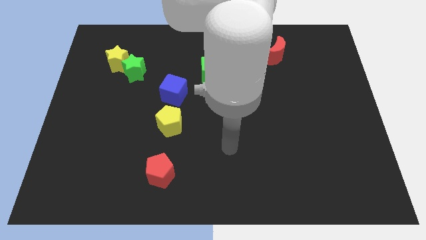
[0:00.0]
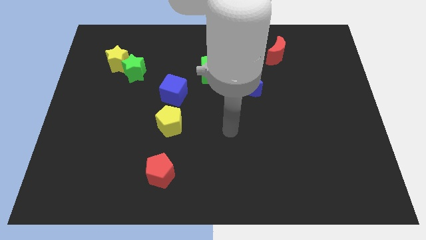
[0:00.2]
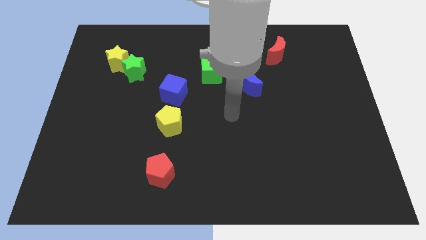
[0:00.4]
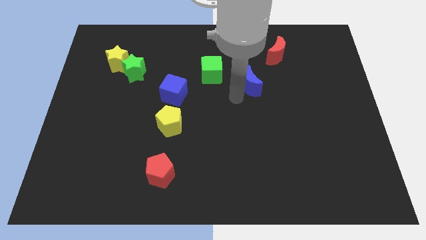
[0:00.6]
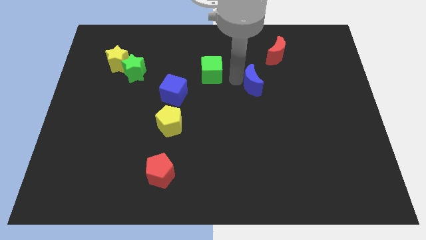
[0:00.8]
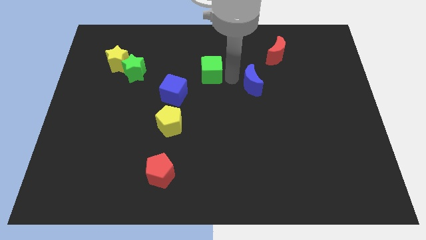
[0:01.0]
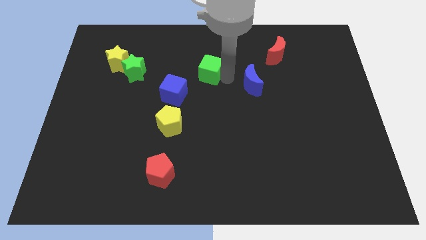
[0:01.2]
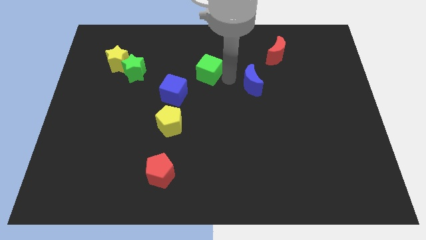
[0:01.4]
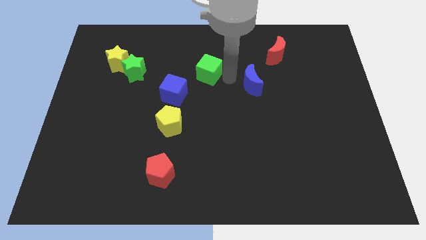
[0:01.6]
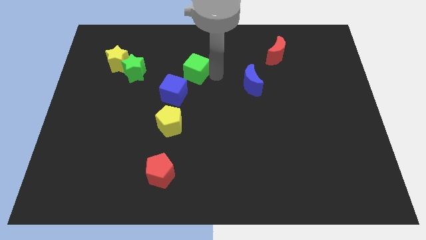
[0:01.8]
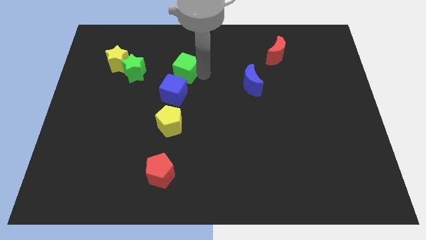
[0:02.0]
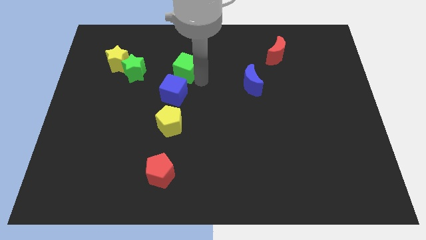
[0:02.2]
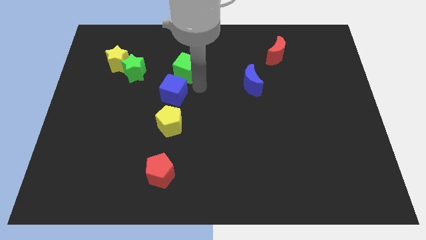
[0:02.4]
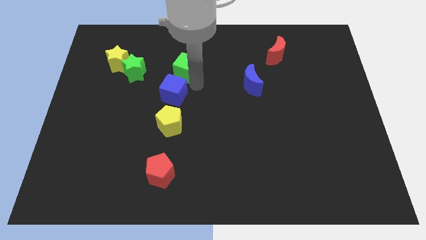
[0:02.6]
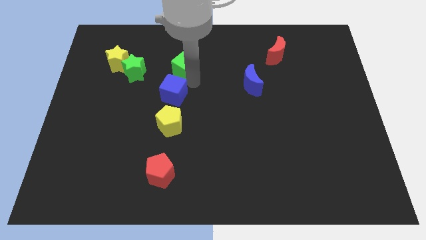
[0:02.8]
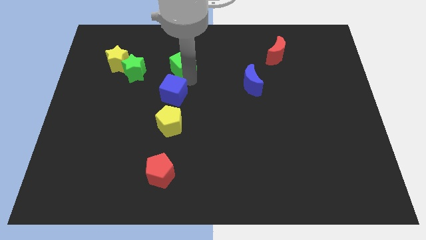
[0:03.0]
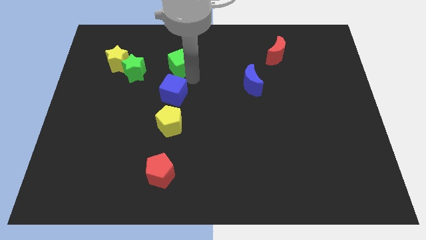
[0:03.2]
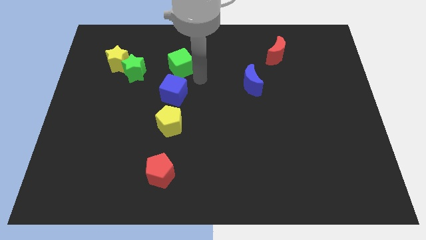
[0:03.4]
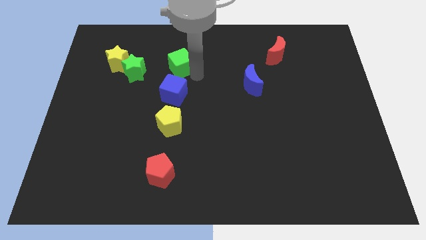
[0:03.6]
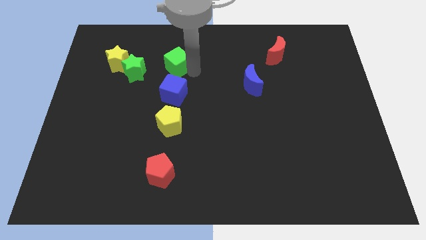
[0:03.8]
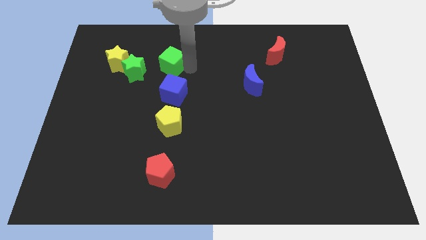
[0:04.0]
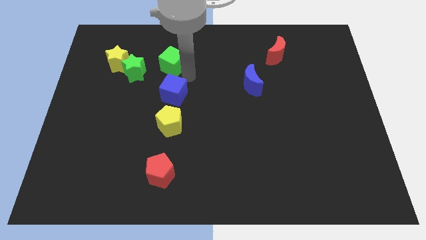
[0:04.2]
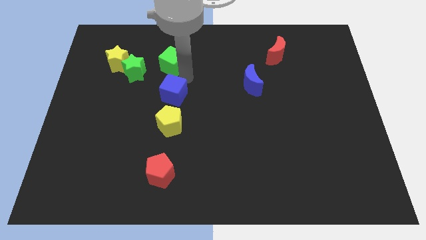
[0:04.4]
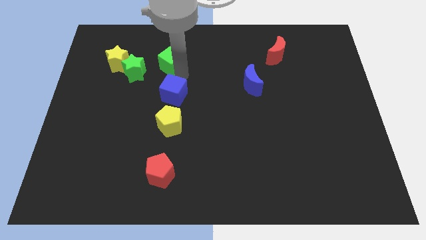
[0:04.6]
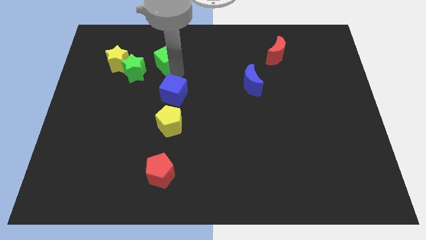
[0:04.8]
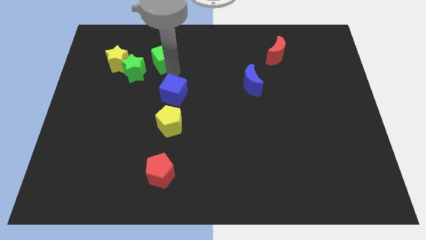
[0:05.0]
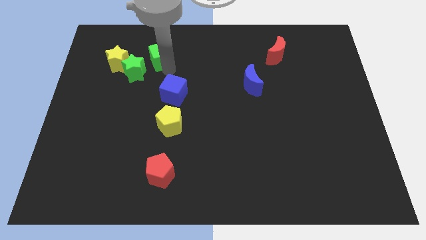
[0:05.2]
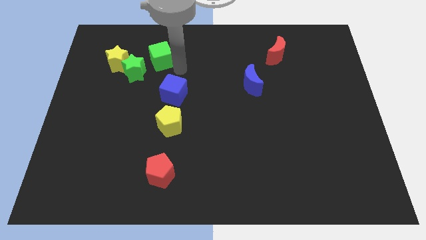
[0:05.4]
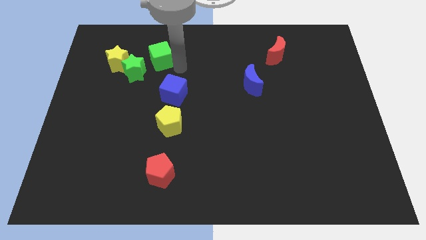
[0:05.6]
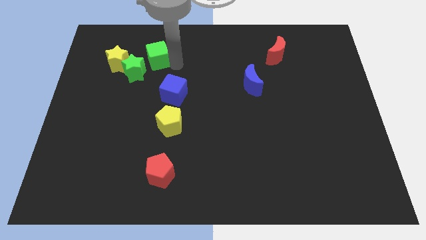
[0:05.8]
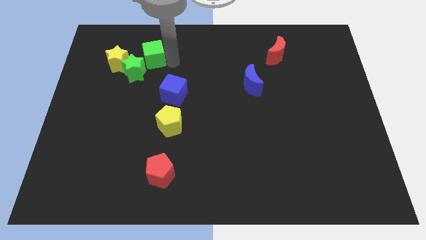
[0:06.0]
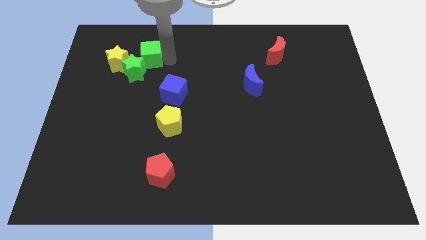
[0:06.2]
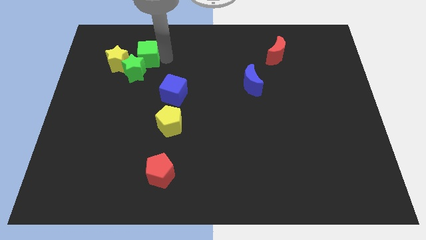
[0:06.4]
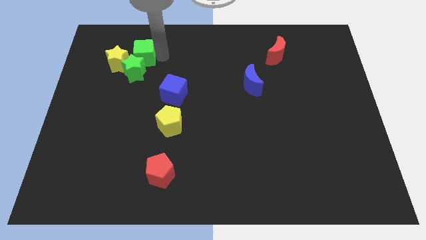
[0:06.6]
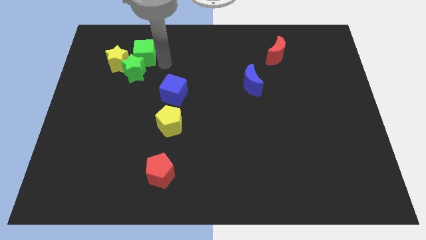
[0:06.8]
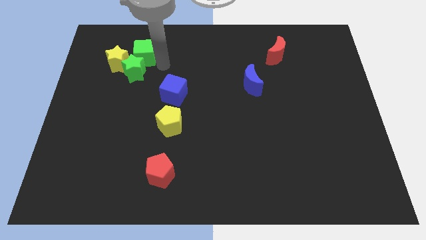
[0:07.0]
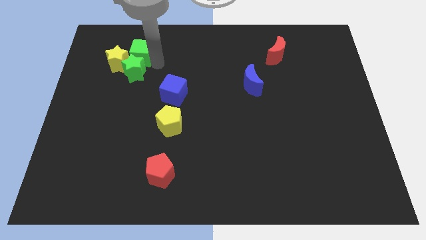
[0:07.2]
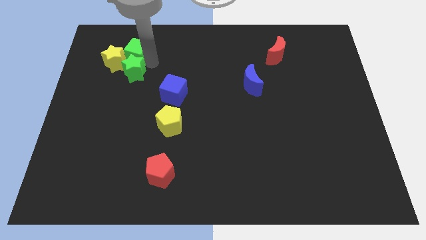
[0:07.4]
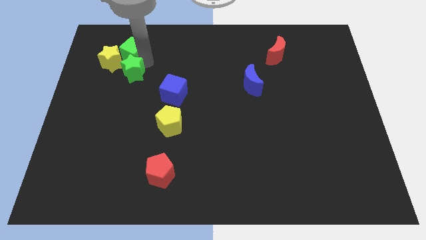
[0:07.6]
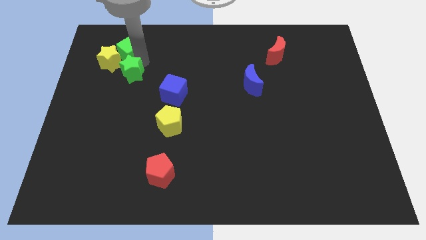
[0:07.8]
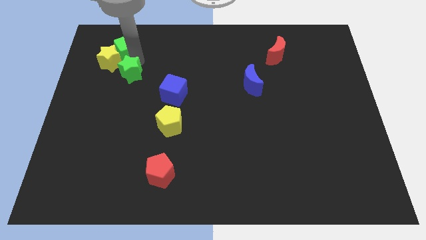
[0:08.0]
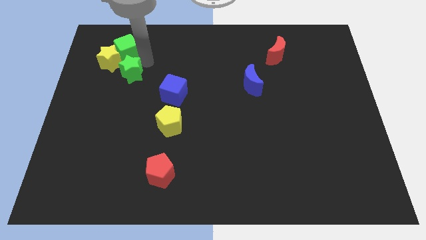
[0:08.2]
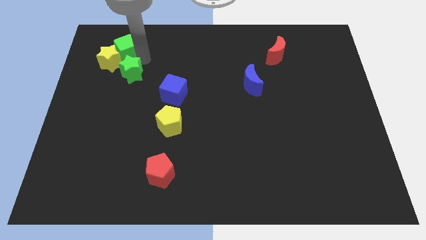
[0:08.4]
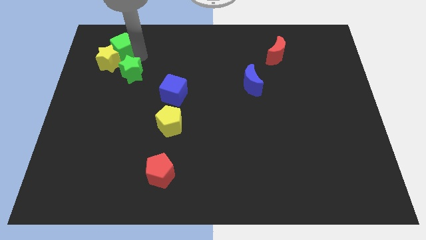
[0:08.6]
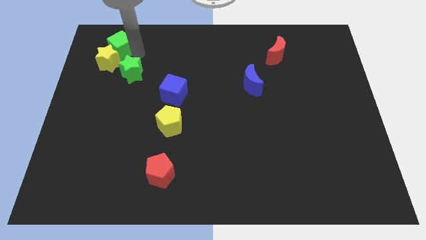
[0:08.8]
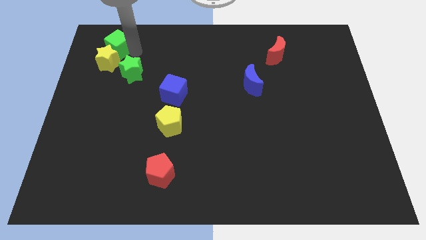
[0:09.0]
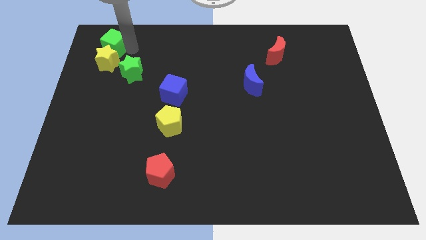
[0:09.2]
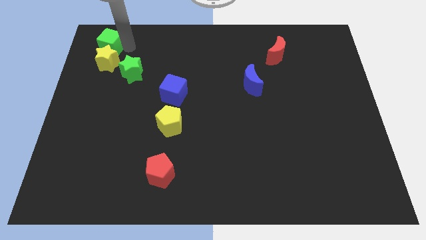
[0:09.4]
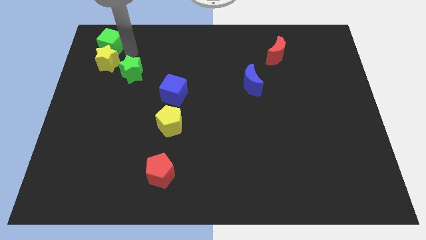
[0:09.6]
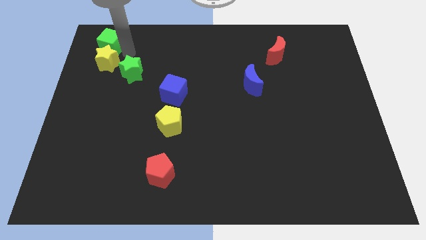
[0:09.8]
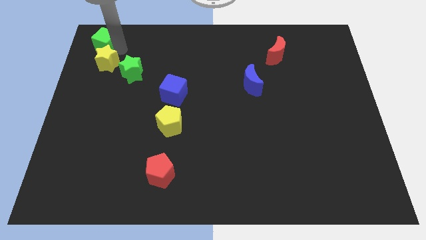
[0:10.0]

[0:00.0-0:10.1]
push the green cube to the top left of the board

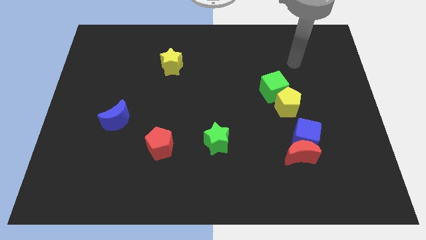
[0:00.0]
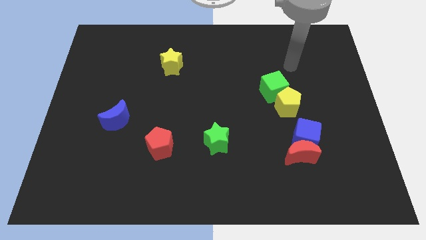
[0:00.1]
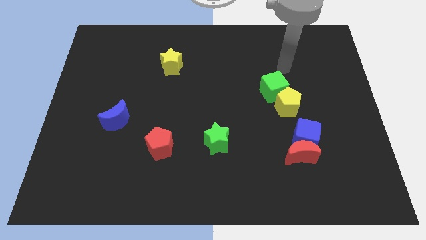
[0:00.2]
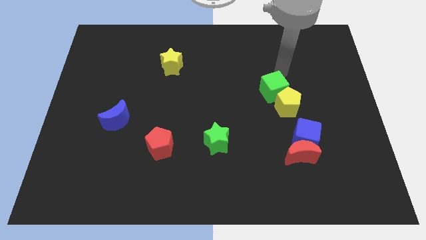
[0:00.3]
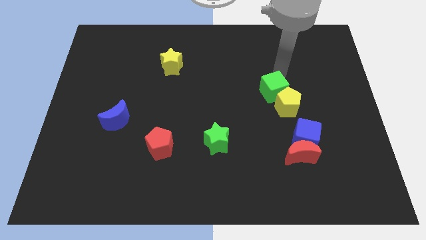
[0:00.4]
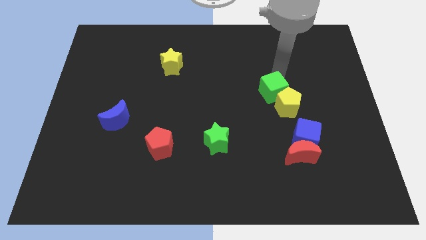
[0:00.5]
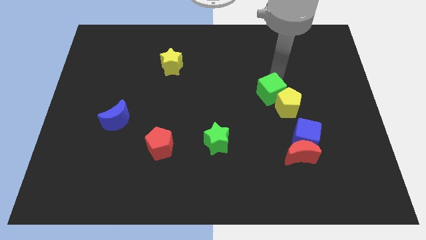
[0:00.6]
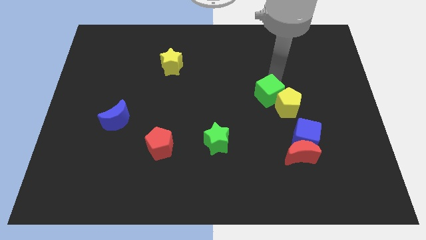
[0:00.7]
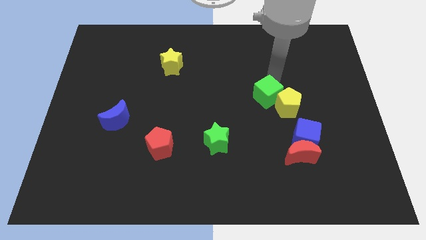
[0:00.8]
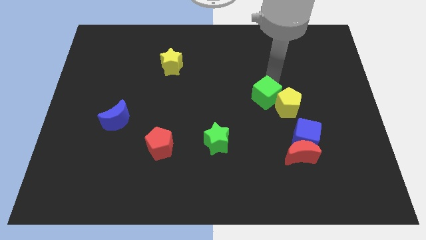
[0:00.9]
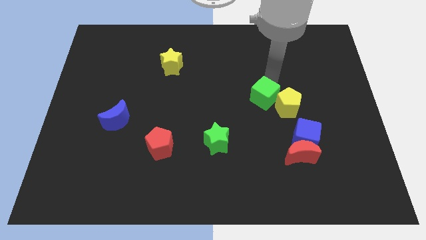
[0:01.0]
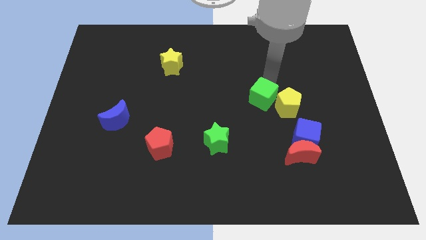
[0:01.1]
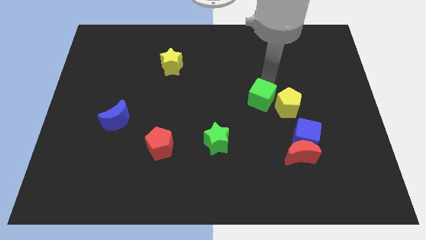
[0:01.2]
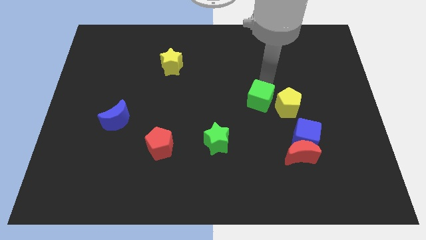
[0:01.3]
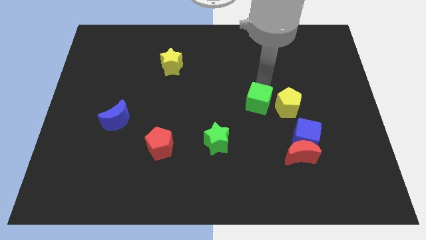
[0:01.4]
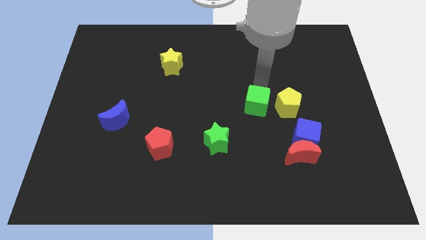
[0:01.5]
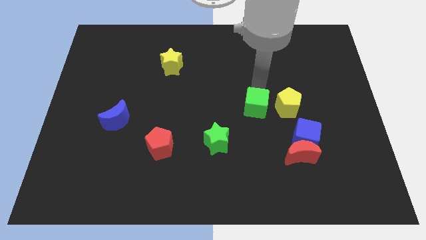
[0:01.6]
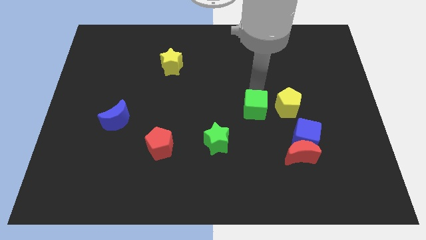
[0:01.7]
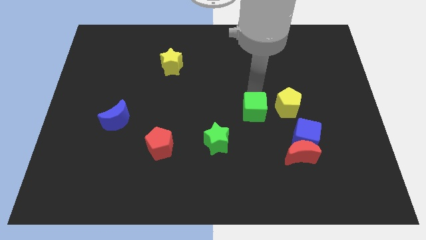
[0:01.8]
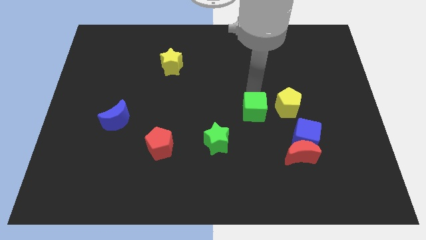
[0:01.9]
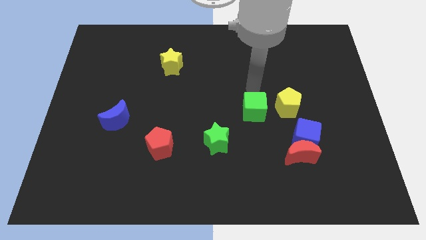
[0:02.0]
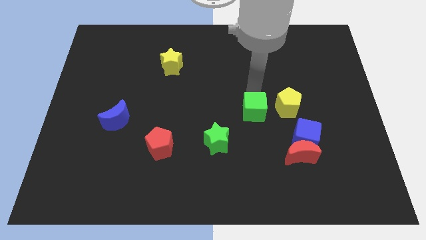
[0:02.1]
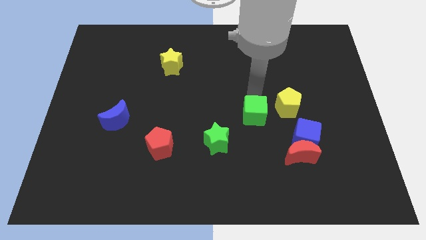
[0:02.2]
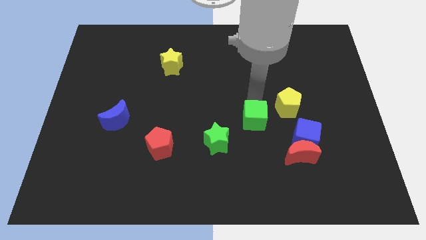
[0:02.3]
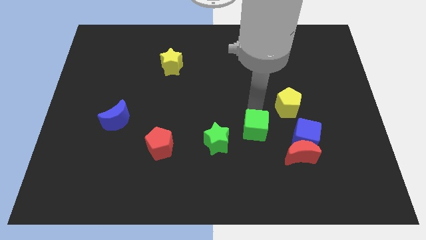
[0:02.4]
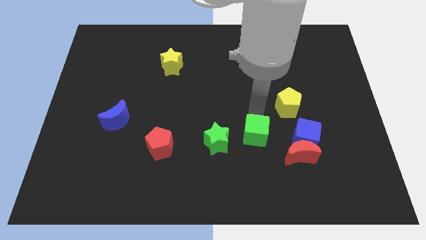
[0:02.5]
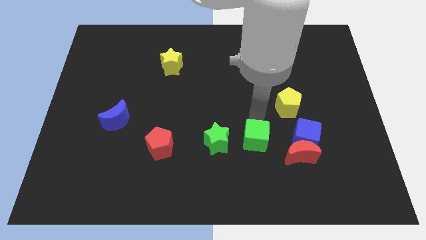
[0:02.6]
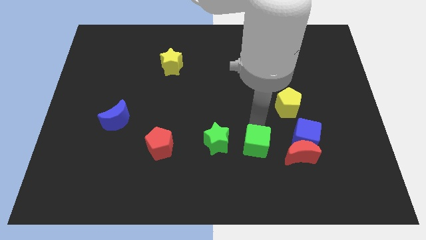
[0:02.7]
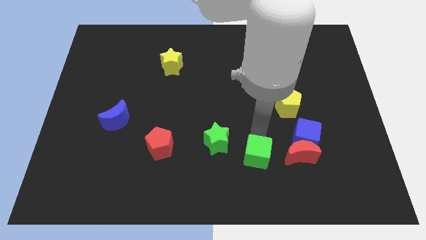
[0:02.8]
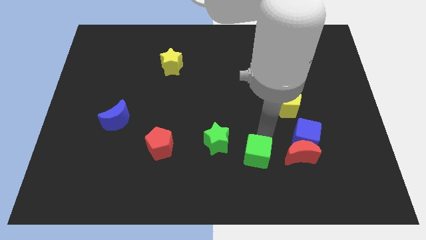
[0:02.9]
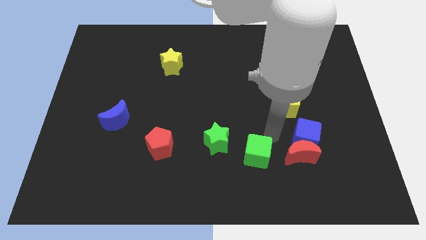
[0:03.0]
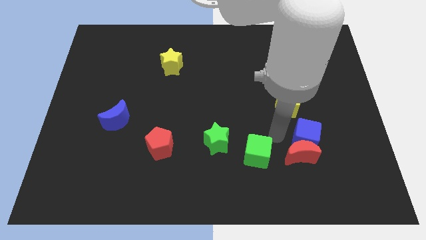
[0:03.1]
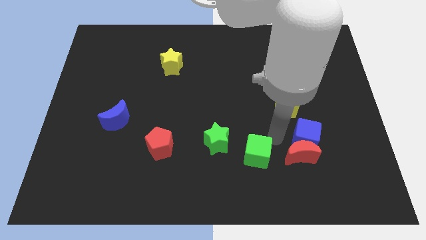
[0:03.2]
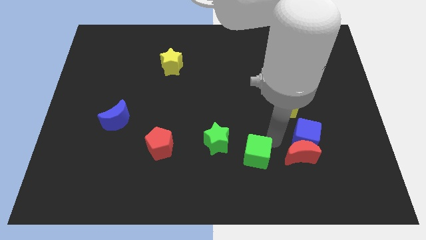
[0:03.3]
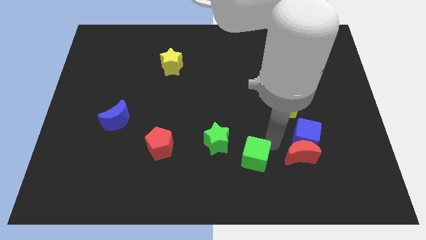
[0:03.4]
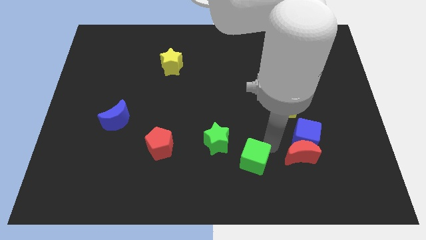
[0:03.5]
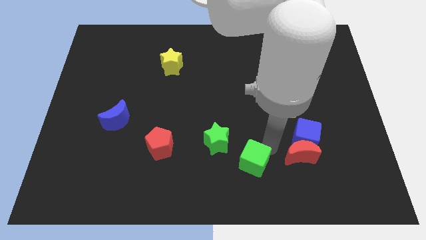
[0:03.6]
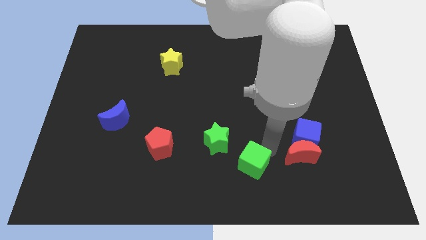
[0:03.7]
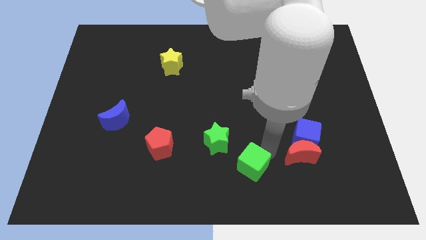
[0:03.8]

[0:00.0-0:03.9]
push the green cube to the bottom side
